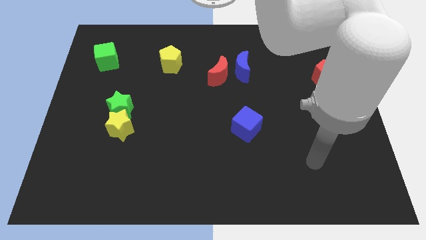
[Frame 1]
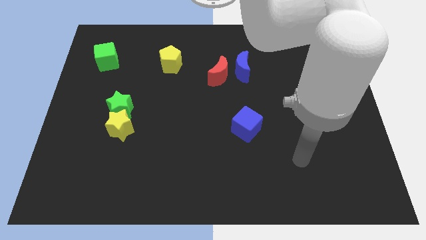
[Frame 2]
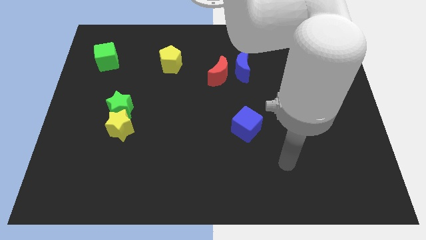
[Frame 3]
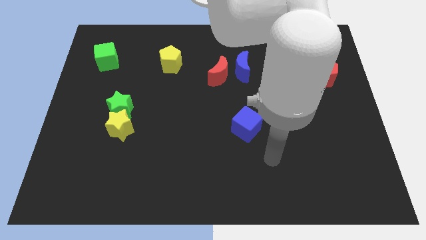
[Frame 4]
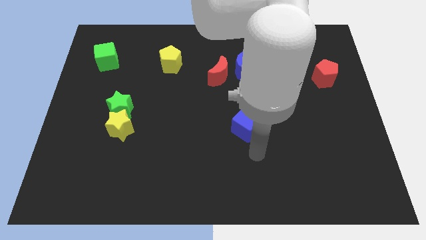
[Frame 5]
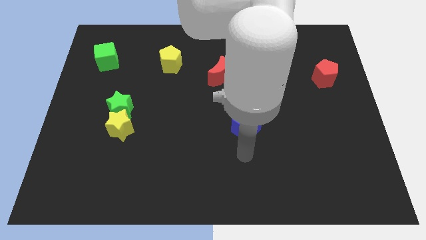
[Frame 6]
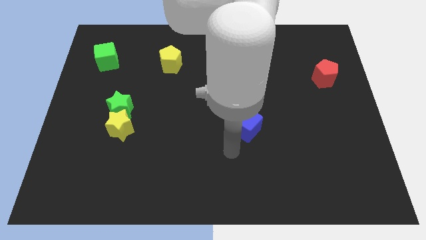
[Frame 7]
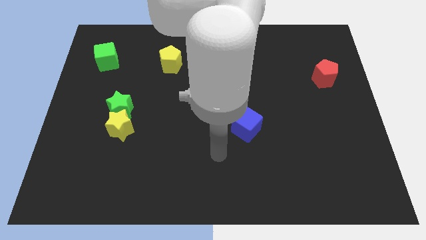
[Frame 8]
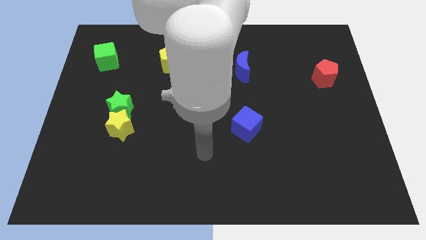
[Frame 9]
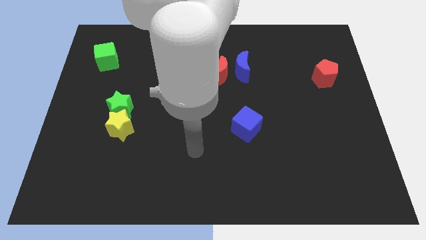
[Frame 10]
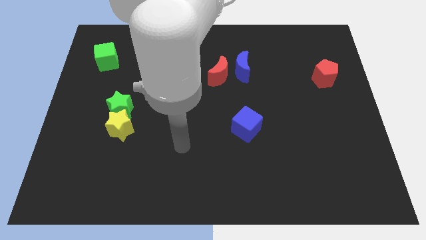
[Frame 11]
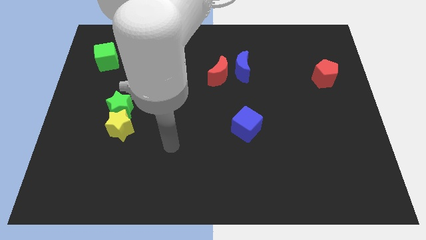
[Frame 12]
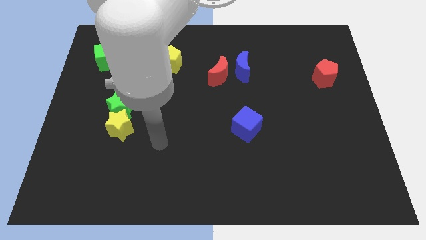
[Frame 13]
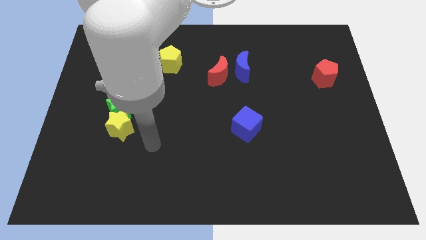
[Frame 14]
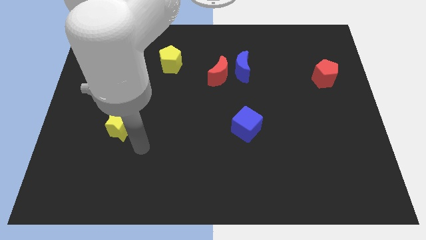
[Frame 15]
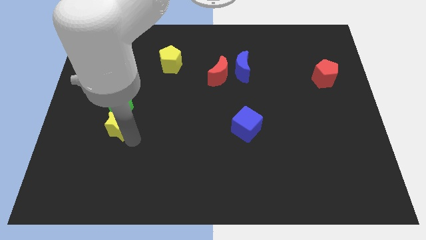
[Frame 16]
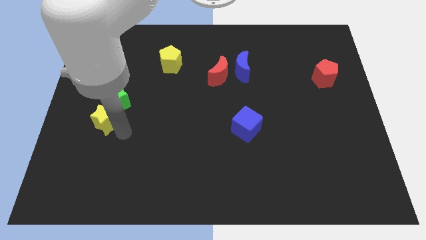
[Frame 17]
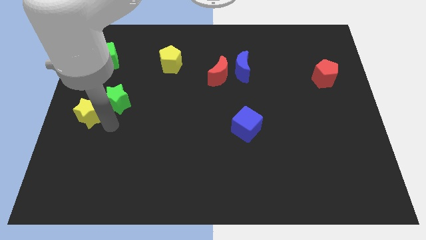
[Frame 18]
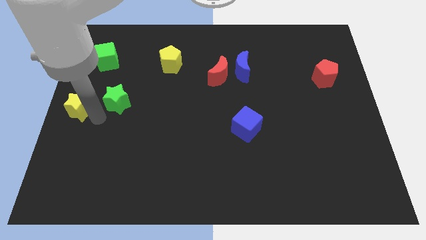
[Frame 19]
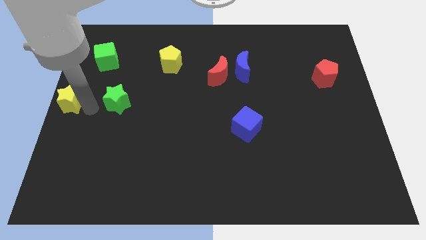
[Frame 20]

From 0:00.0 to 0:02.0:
separate the green star from the yellow star

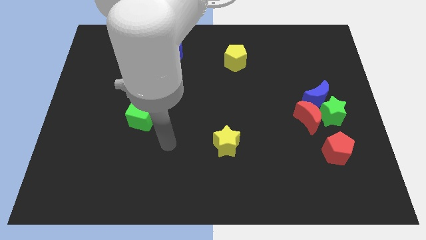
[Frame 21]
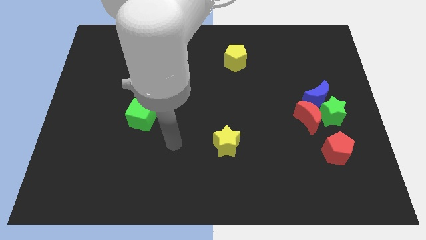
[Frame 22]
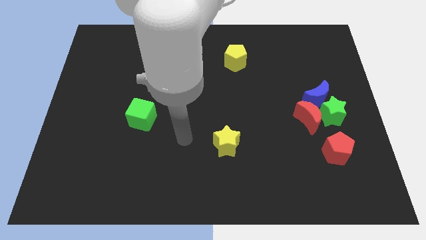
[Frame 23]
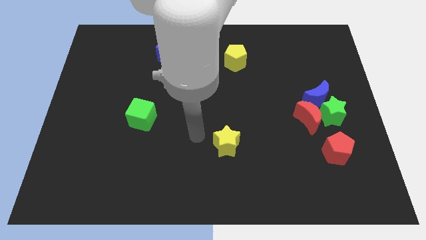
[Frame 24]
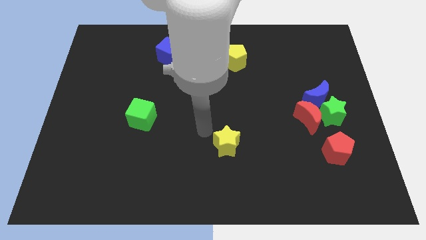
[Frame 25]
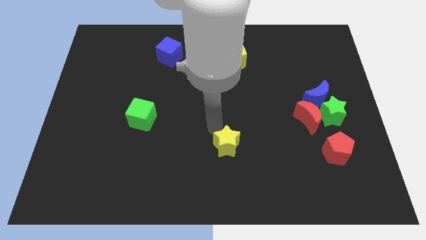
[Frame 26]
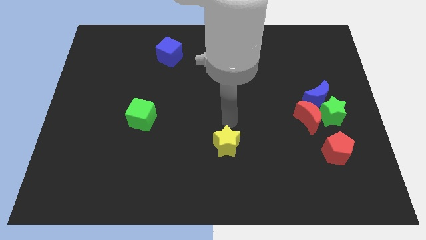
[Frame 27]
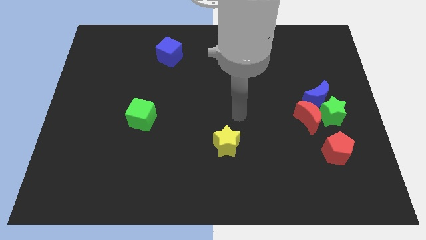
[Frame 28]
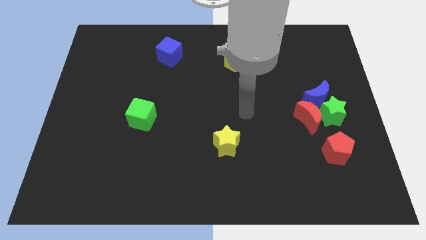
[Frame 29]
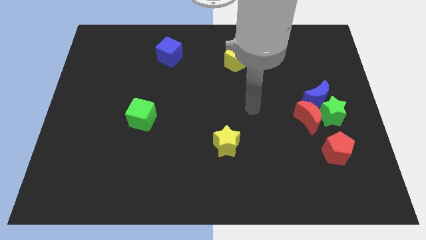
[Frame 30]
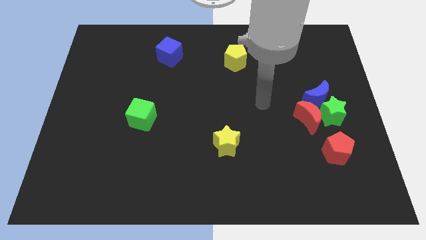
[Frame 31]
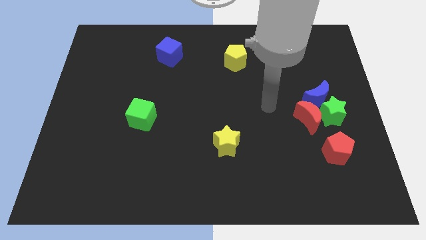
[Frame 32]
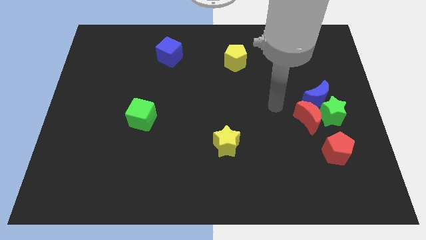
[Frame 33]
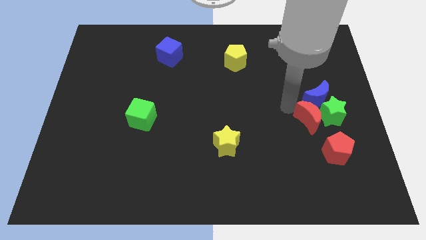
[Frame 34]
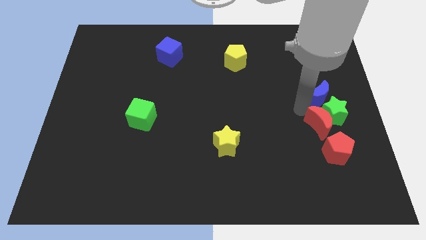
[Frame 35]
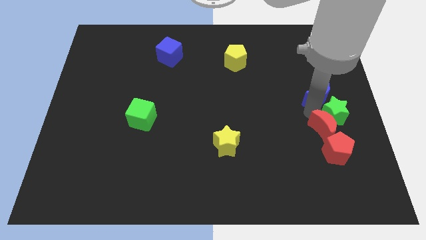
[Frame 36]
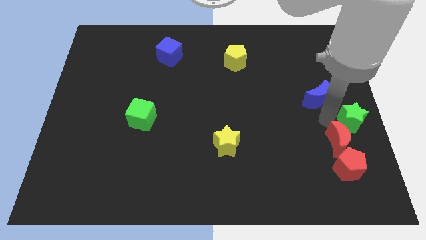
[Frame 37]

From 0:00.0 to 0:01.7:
pull the blue moon apart from the green star and red moon

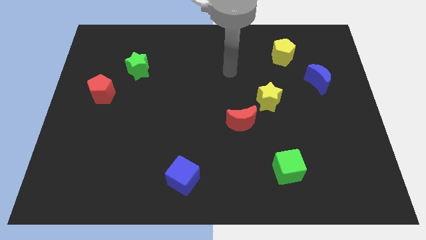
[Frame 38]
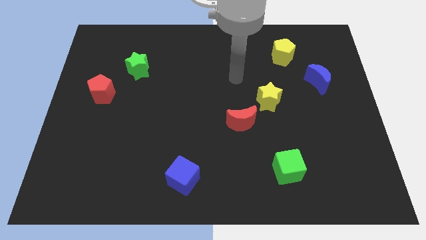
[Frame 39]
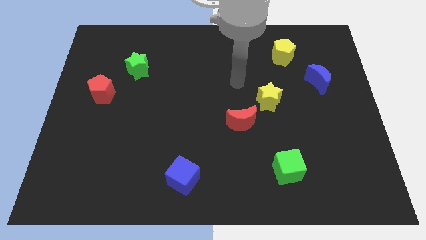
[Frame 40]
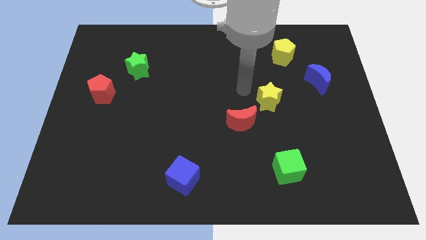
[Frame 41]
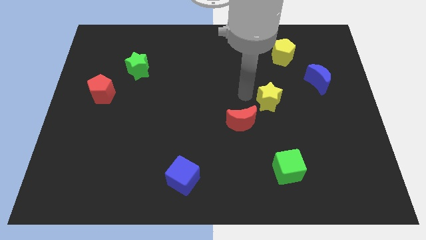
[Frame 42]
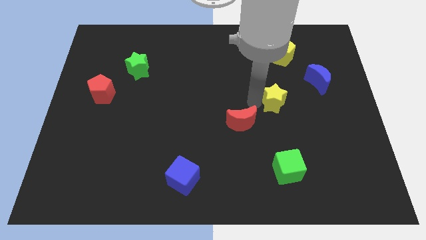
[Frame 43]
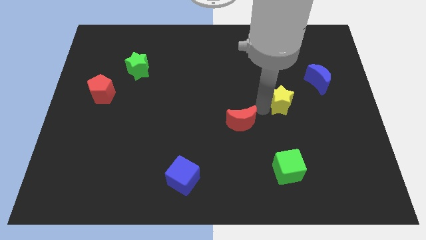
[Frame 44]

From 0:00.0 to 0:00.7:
pull the red moon apart from the yellow star

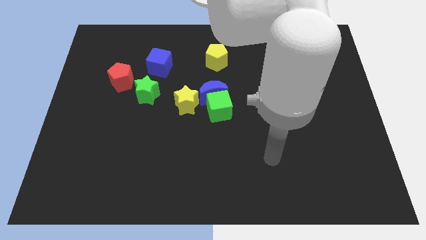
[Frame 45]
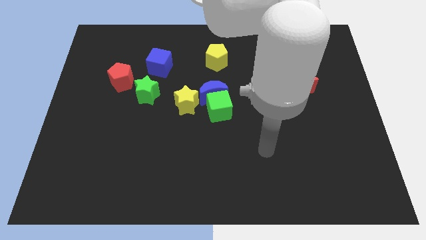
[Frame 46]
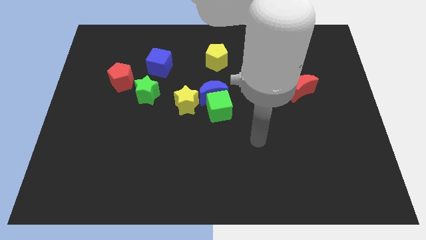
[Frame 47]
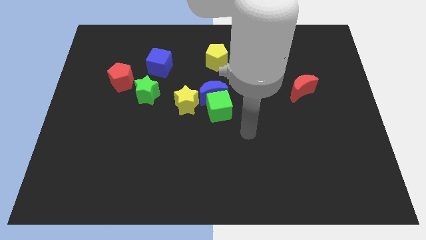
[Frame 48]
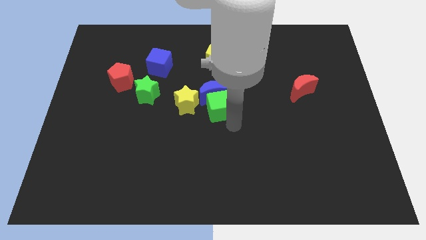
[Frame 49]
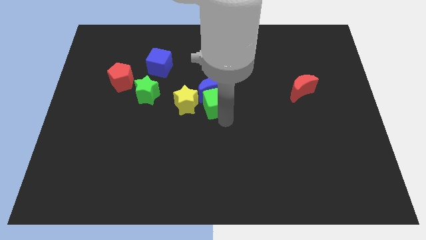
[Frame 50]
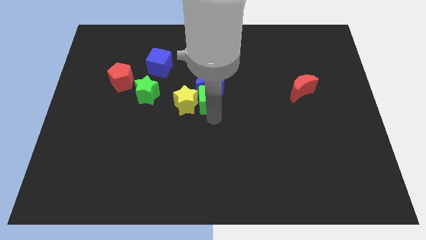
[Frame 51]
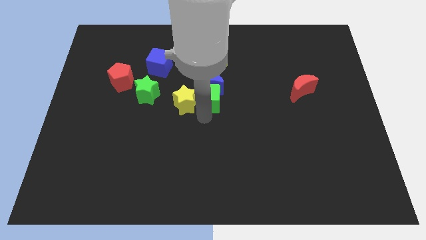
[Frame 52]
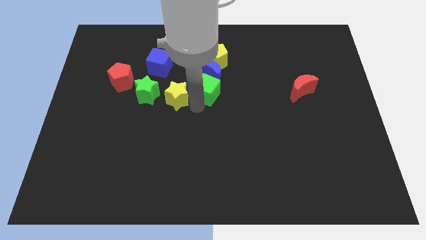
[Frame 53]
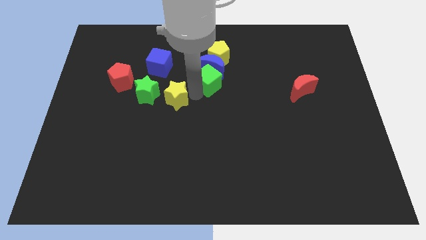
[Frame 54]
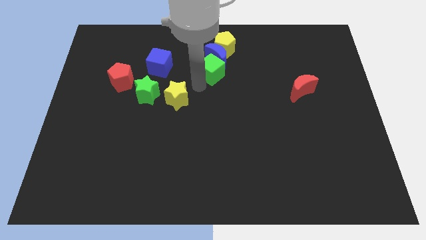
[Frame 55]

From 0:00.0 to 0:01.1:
pull the blue moon apart from the green cube and yellow star

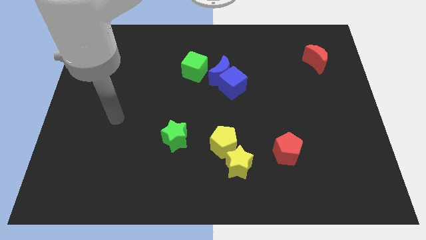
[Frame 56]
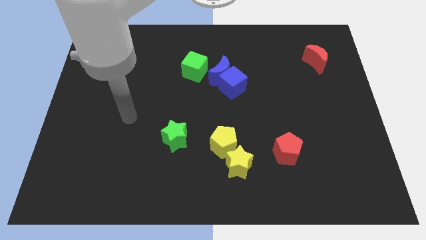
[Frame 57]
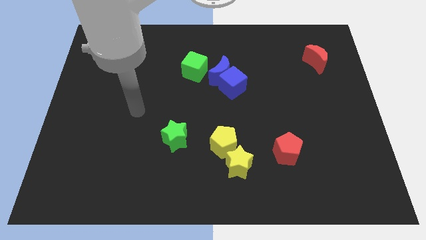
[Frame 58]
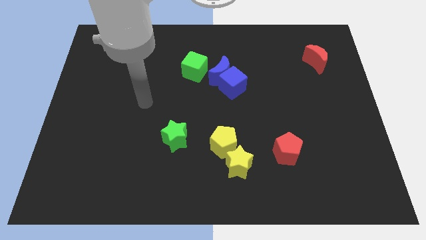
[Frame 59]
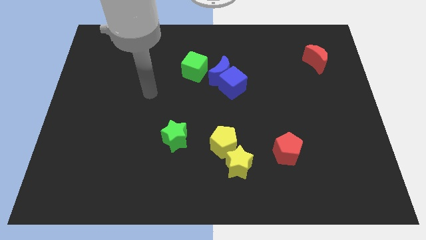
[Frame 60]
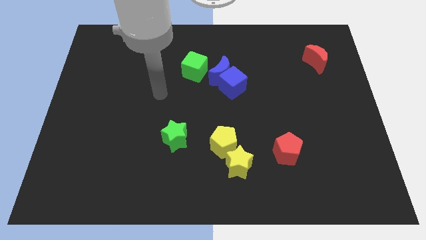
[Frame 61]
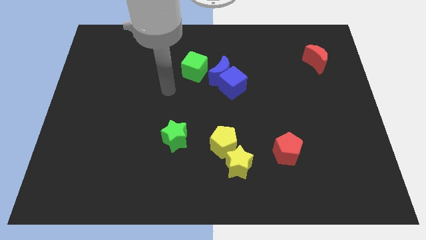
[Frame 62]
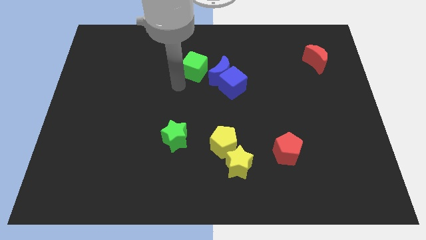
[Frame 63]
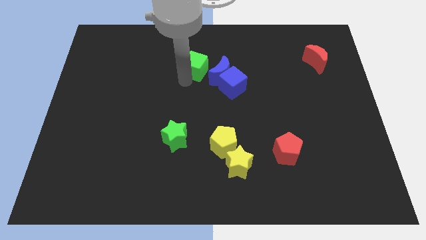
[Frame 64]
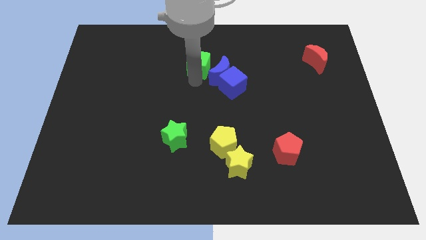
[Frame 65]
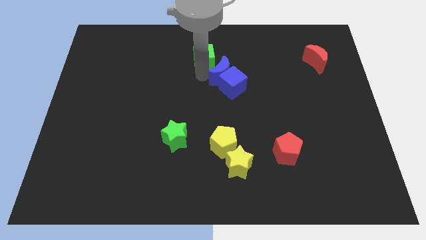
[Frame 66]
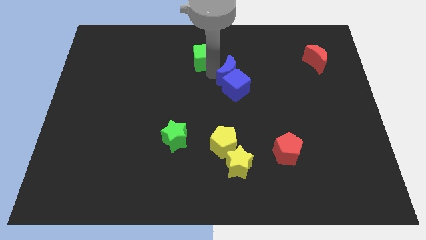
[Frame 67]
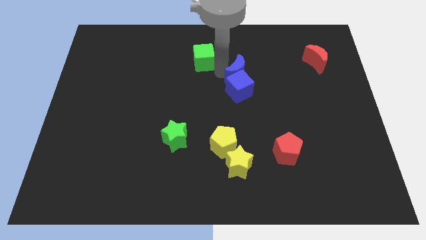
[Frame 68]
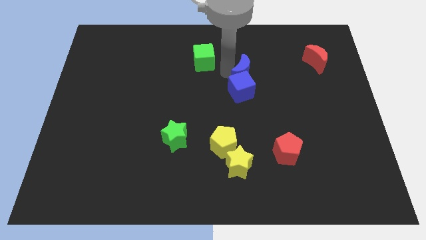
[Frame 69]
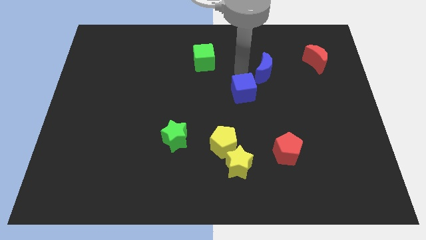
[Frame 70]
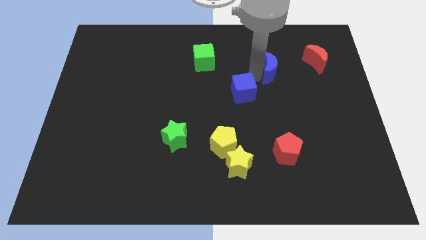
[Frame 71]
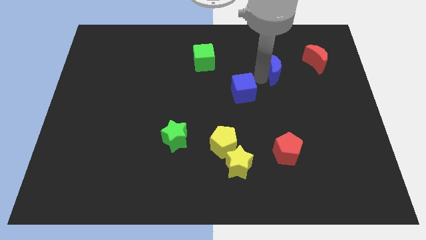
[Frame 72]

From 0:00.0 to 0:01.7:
separate the blue cube from the blue moon

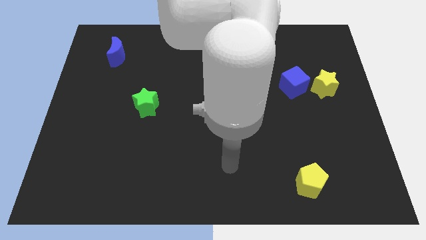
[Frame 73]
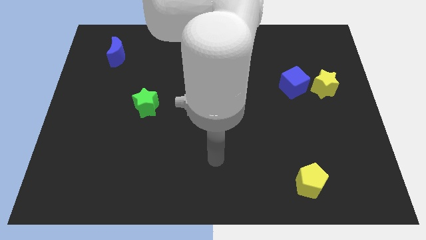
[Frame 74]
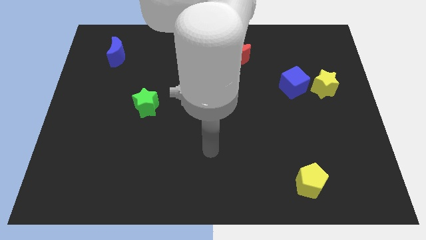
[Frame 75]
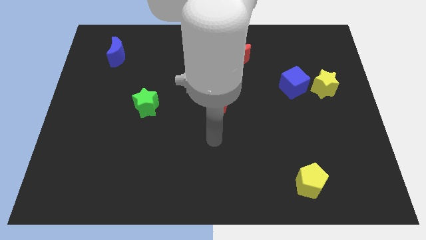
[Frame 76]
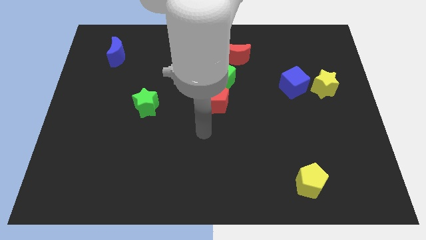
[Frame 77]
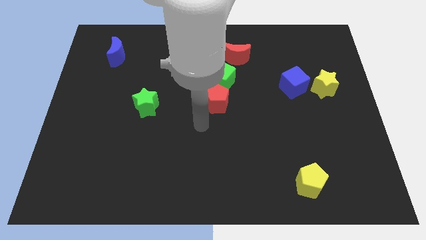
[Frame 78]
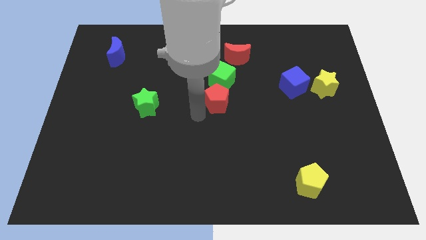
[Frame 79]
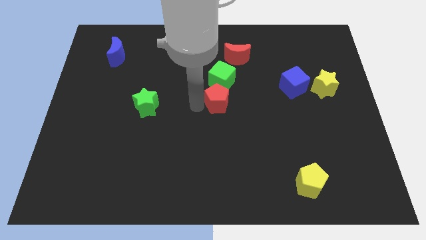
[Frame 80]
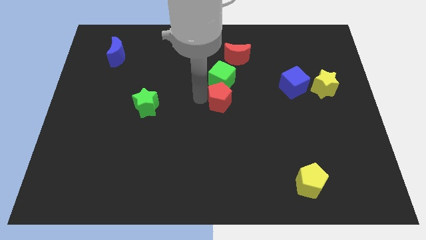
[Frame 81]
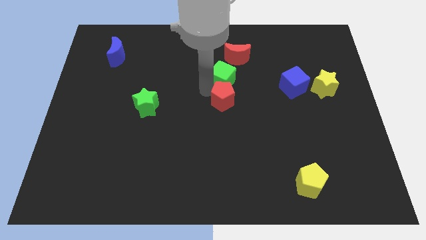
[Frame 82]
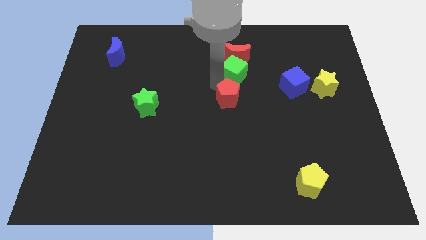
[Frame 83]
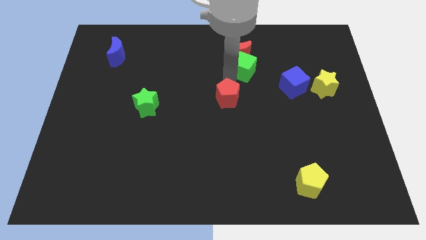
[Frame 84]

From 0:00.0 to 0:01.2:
separate the red pentagon from the green cube

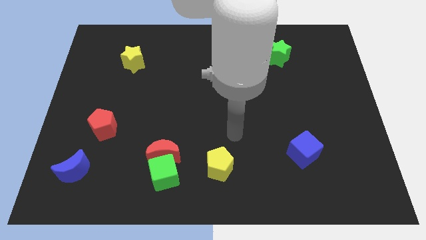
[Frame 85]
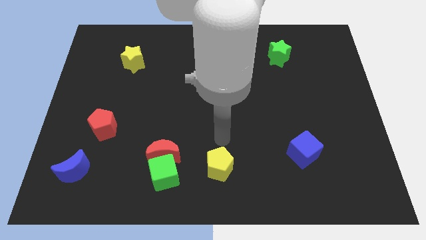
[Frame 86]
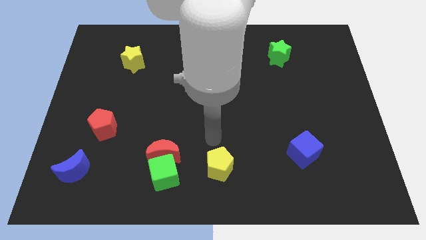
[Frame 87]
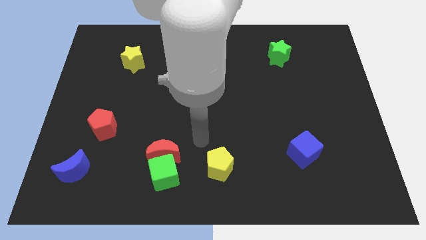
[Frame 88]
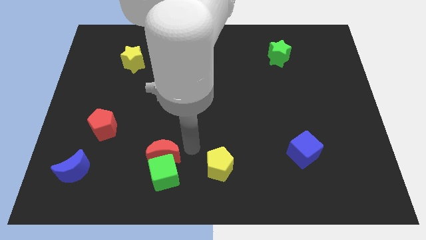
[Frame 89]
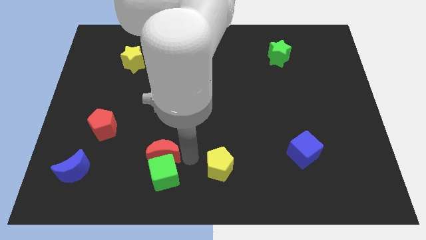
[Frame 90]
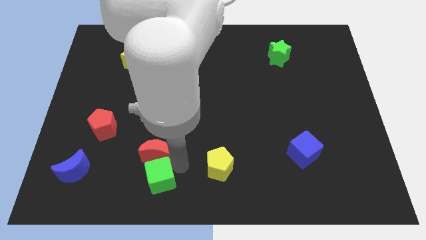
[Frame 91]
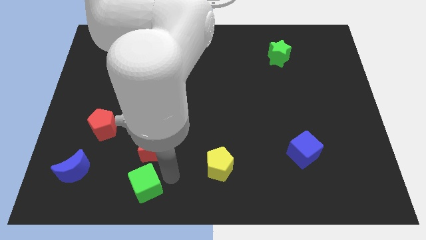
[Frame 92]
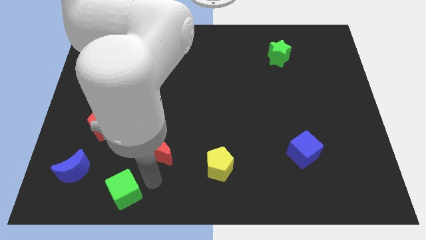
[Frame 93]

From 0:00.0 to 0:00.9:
move the red moon away from the green cube

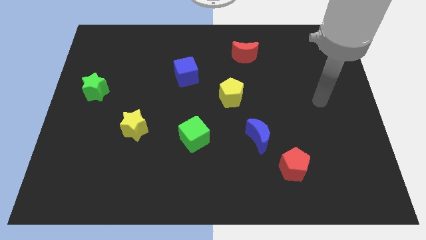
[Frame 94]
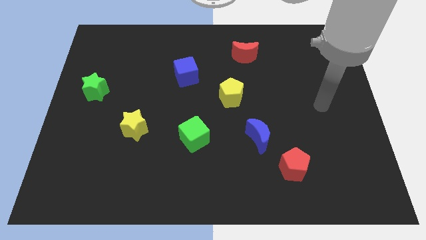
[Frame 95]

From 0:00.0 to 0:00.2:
pull the red pentagon apart from the blue moon
